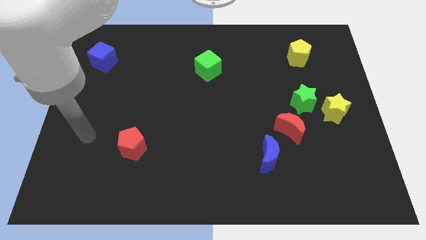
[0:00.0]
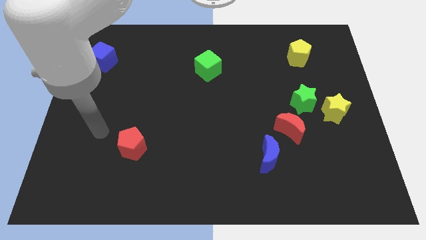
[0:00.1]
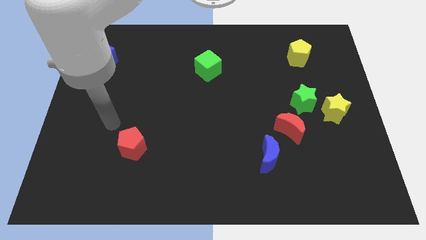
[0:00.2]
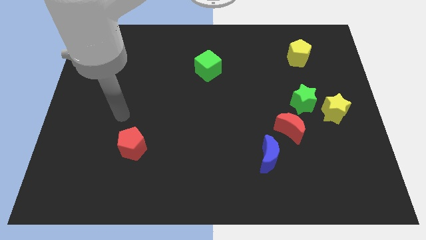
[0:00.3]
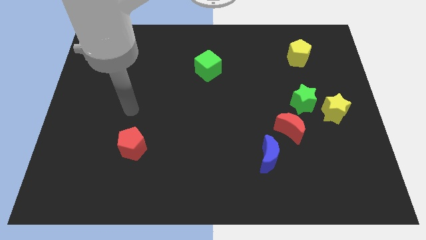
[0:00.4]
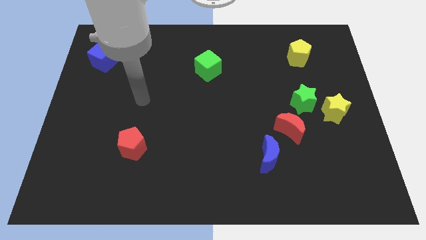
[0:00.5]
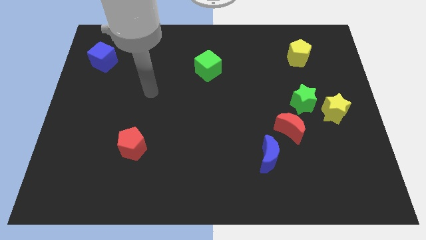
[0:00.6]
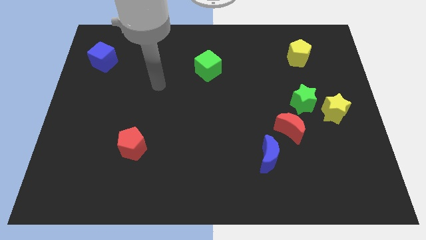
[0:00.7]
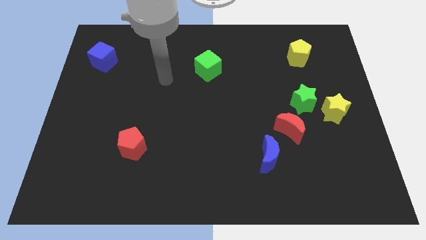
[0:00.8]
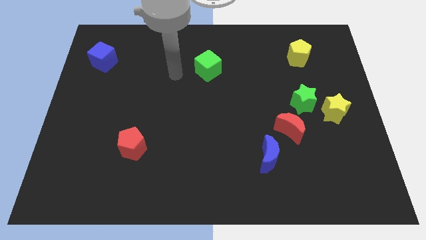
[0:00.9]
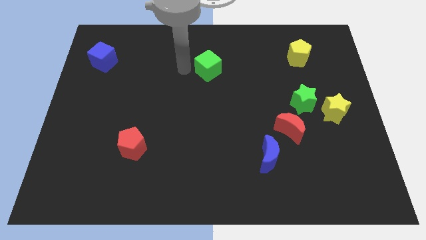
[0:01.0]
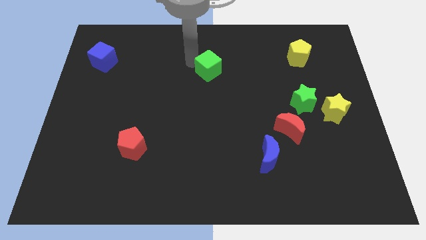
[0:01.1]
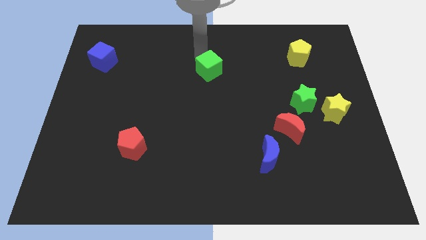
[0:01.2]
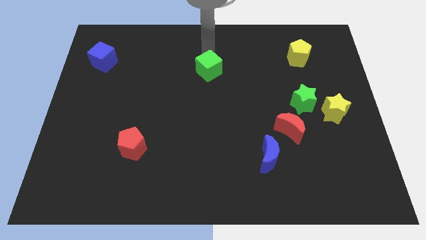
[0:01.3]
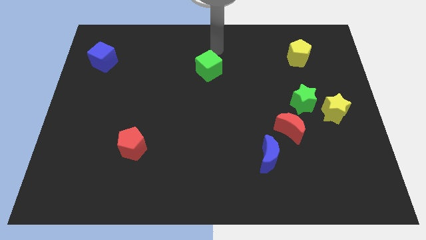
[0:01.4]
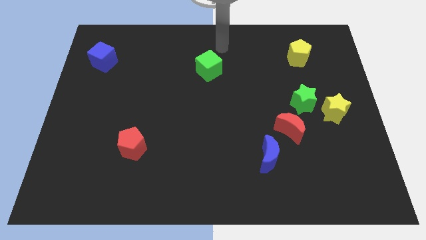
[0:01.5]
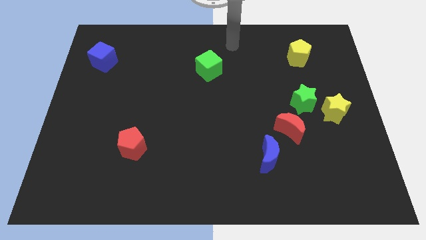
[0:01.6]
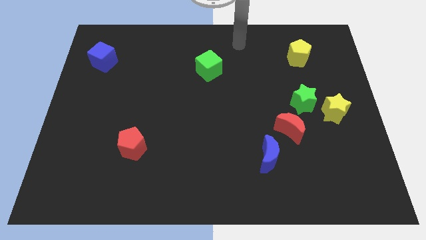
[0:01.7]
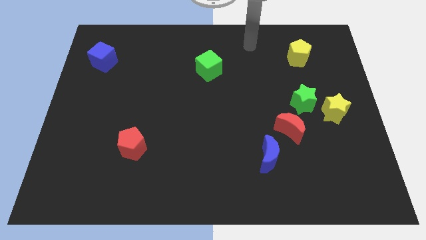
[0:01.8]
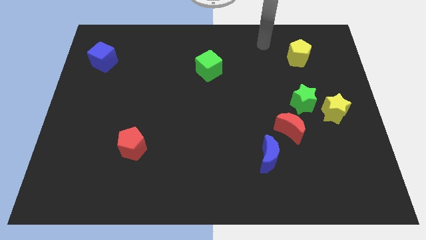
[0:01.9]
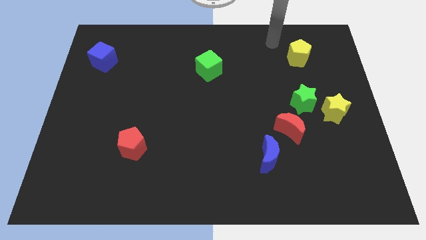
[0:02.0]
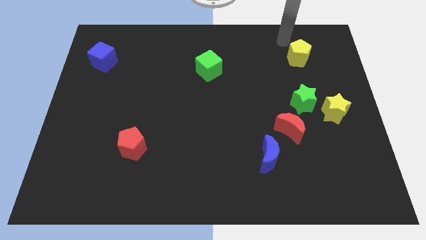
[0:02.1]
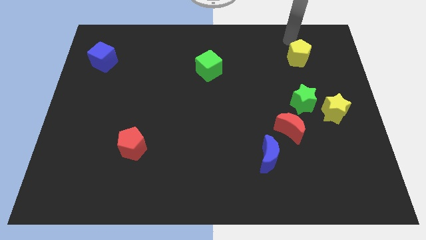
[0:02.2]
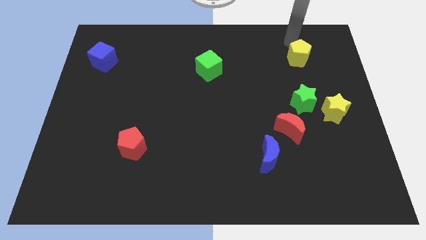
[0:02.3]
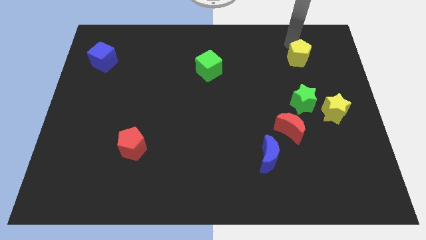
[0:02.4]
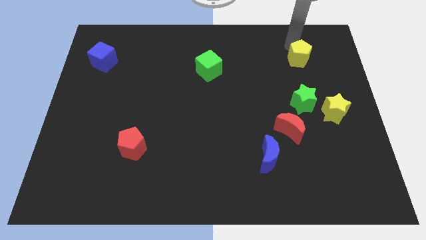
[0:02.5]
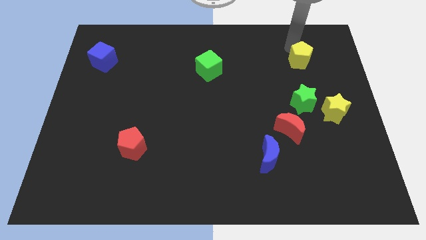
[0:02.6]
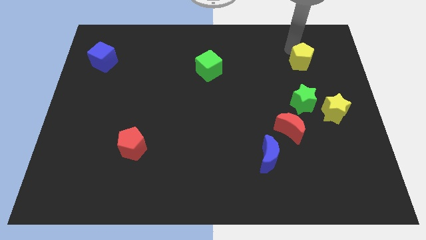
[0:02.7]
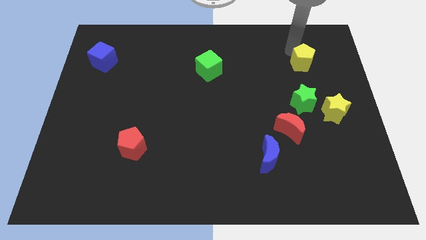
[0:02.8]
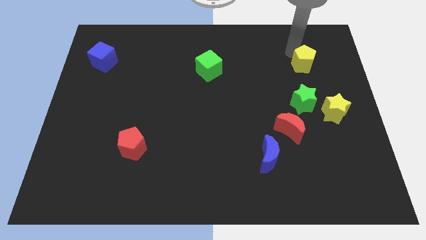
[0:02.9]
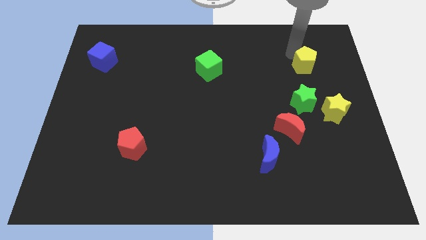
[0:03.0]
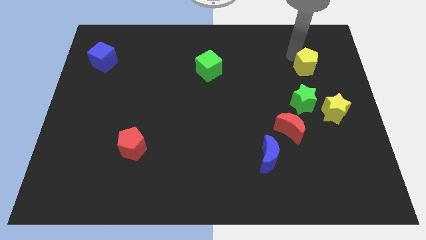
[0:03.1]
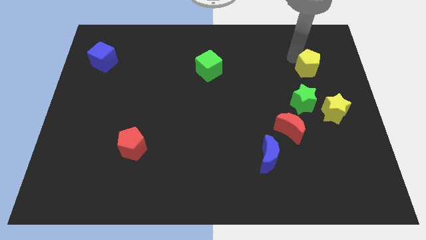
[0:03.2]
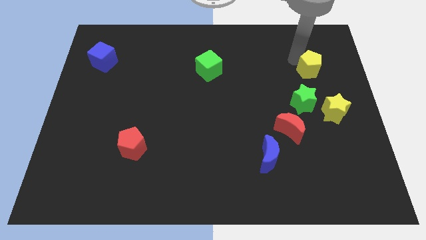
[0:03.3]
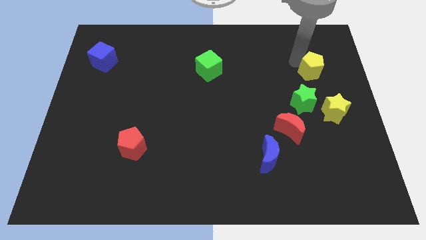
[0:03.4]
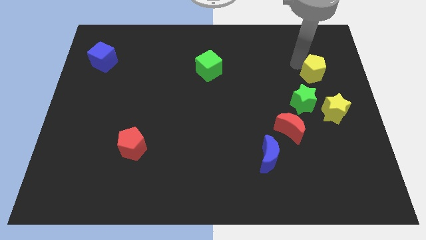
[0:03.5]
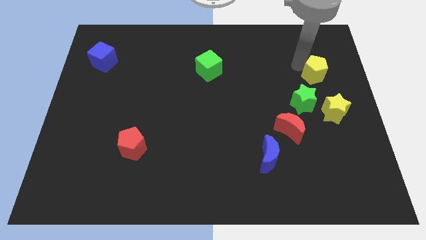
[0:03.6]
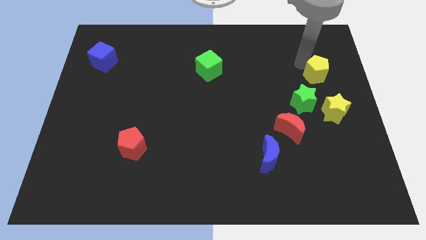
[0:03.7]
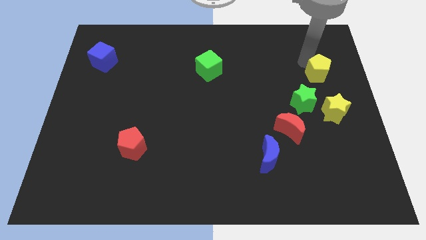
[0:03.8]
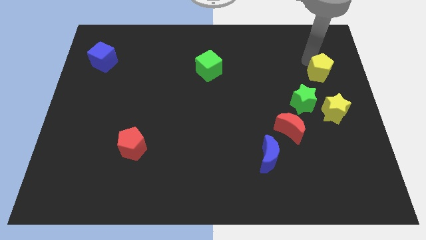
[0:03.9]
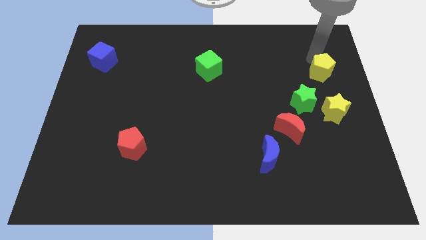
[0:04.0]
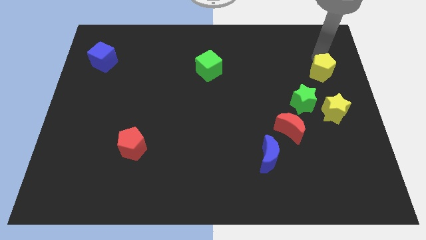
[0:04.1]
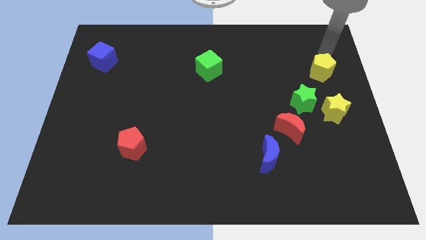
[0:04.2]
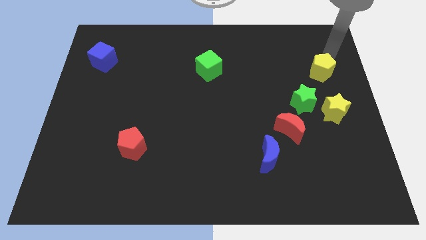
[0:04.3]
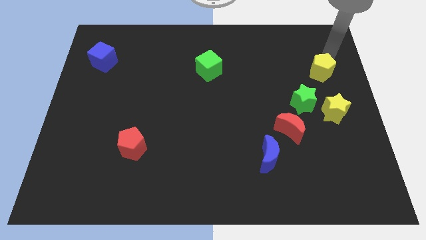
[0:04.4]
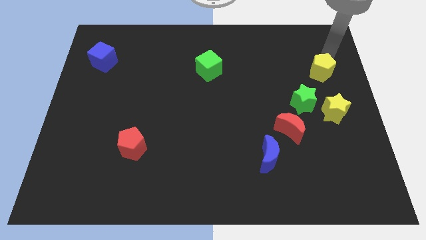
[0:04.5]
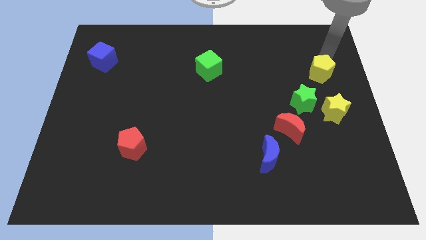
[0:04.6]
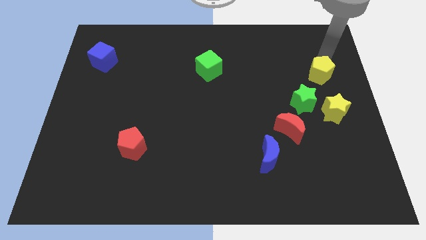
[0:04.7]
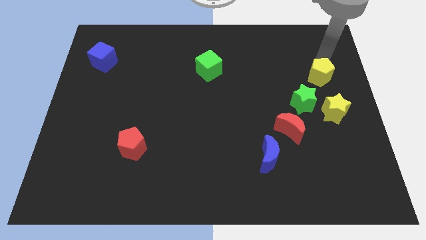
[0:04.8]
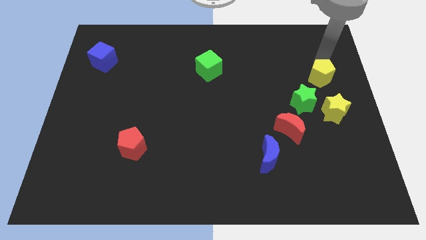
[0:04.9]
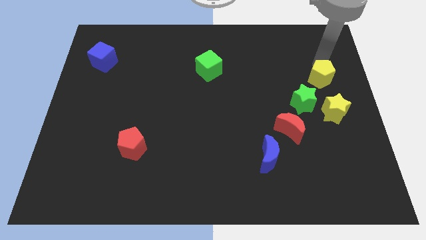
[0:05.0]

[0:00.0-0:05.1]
slightly move the yellow pentagon downwards

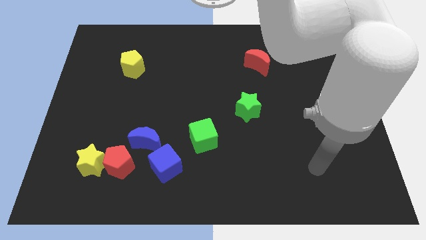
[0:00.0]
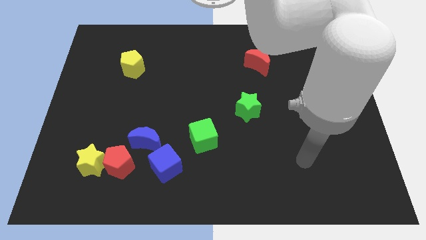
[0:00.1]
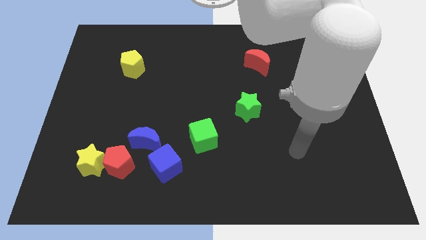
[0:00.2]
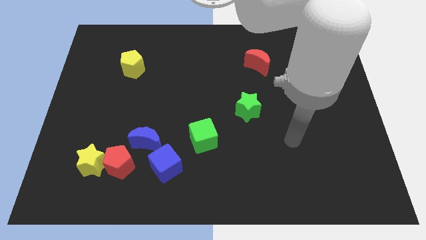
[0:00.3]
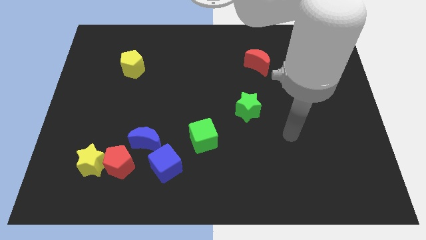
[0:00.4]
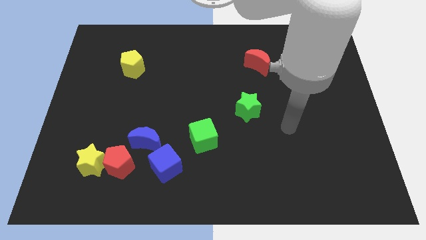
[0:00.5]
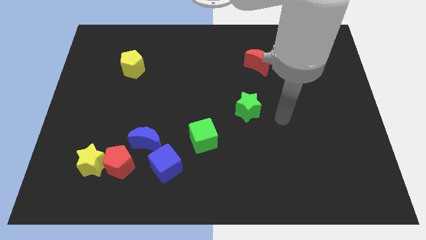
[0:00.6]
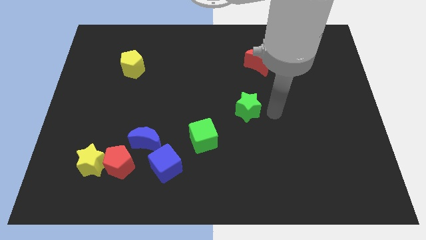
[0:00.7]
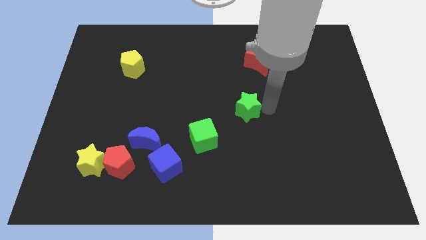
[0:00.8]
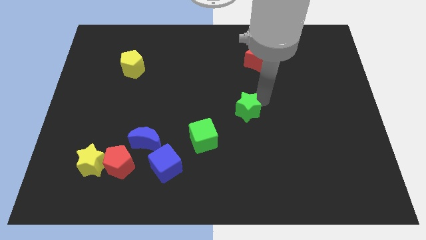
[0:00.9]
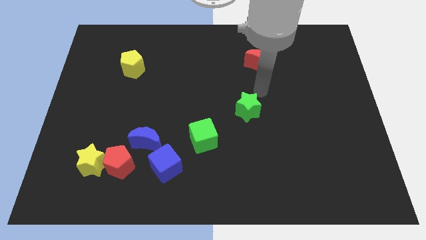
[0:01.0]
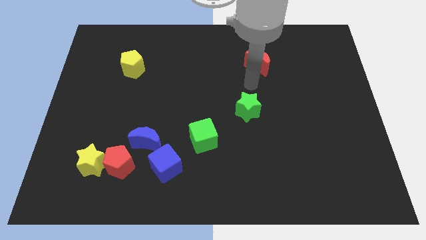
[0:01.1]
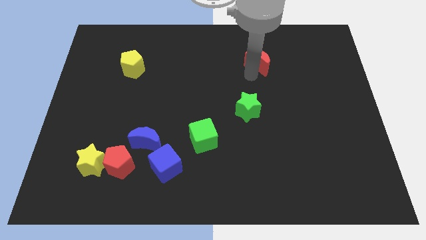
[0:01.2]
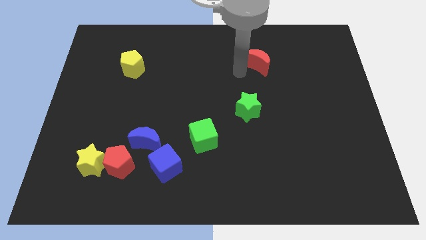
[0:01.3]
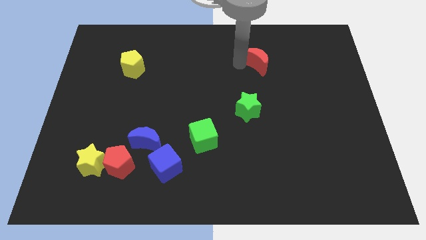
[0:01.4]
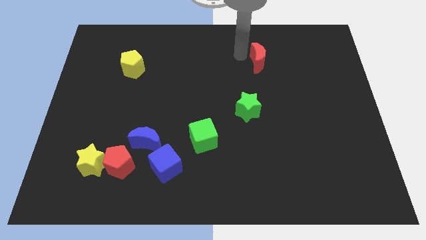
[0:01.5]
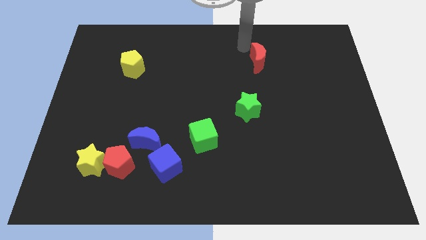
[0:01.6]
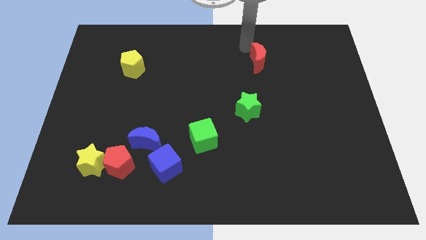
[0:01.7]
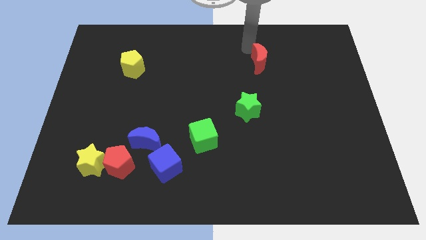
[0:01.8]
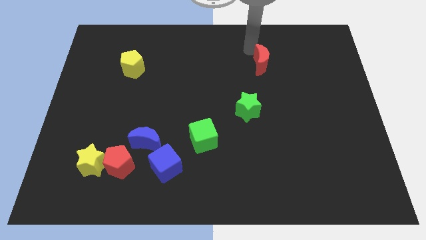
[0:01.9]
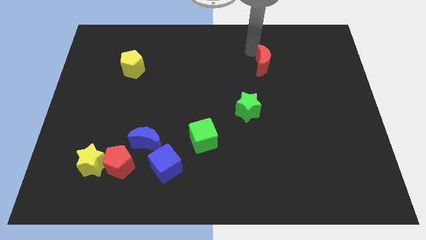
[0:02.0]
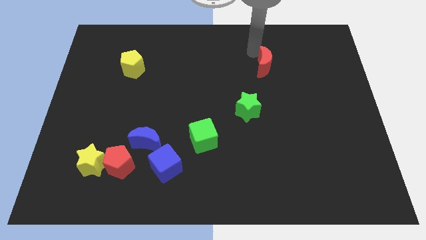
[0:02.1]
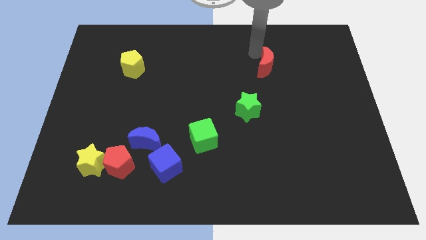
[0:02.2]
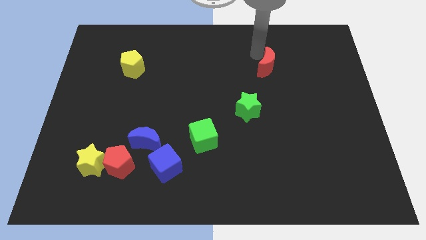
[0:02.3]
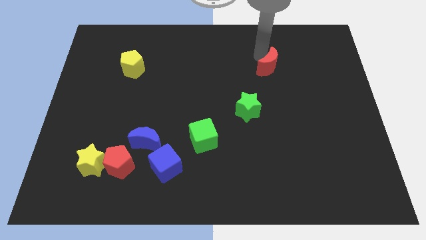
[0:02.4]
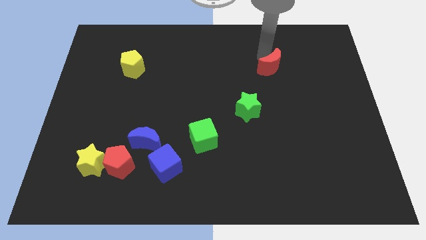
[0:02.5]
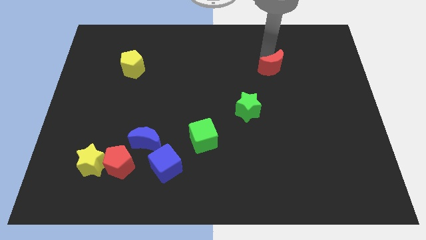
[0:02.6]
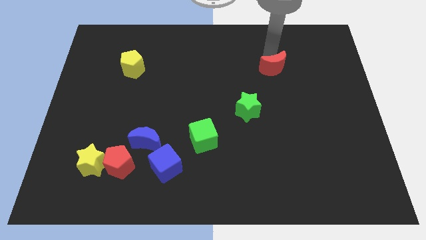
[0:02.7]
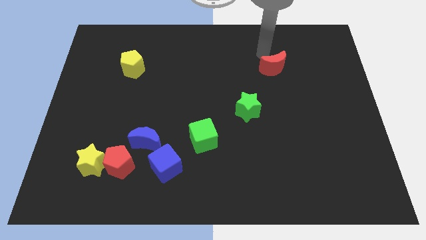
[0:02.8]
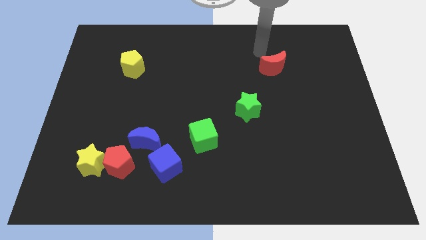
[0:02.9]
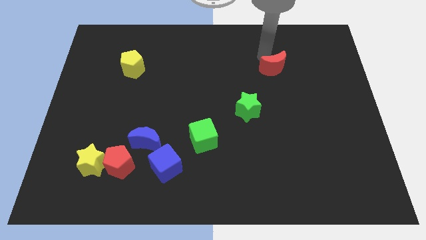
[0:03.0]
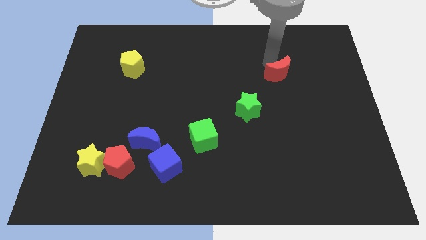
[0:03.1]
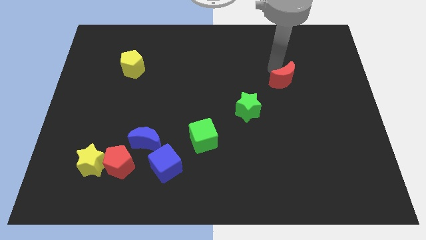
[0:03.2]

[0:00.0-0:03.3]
slightly slide the red moon diagonally downwards and to the right
